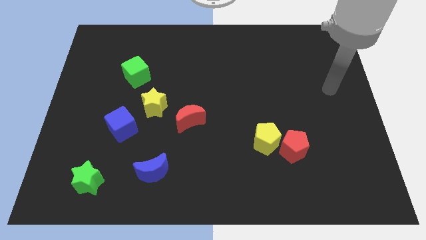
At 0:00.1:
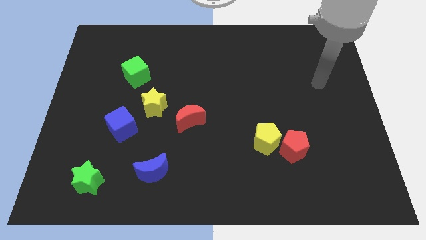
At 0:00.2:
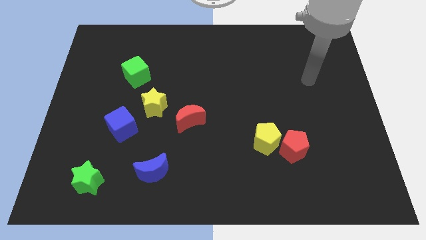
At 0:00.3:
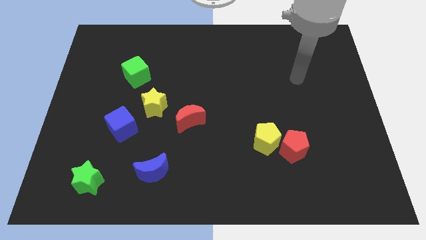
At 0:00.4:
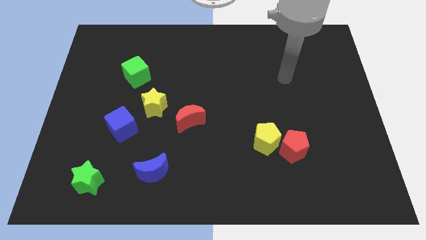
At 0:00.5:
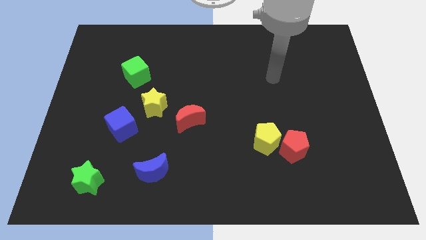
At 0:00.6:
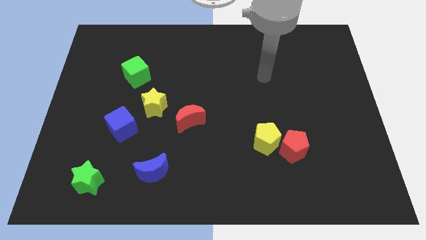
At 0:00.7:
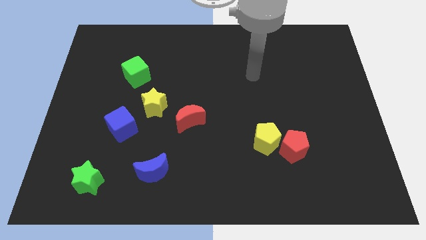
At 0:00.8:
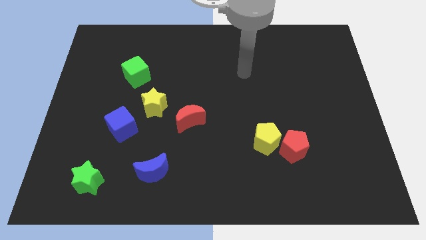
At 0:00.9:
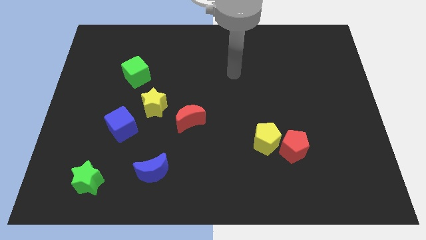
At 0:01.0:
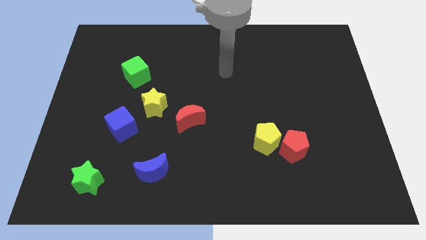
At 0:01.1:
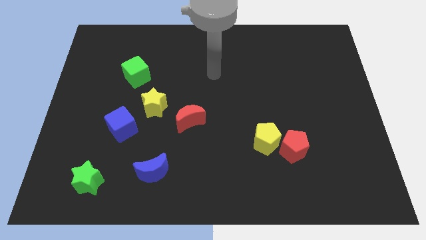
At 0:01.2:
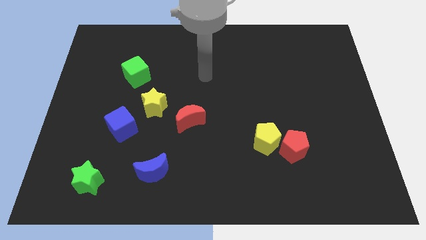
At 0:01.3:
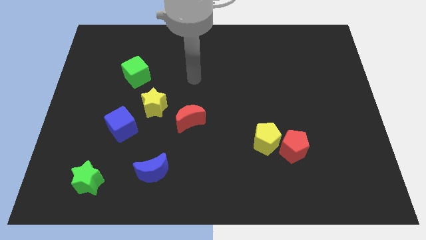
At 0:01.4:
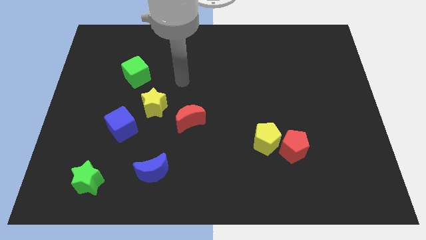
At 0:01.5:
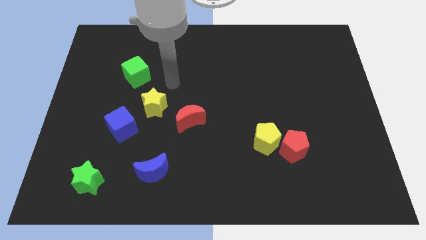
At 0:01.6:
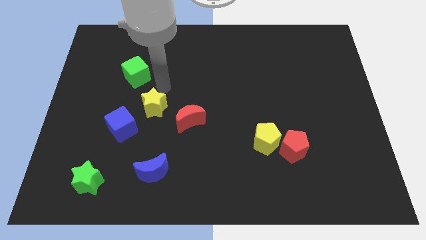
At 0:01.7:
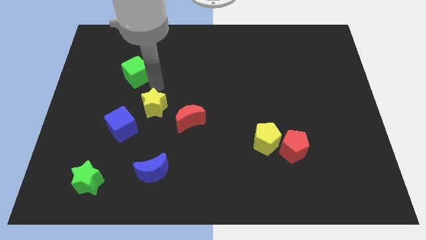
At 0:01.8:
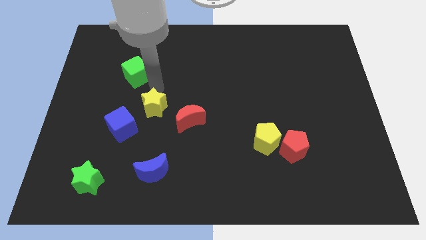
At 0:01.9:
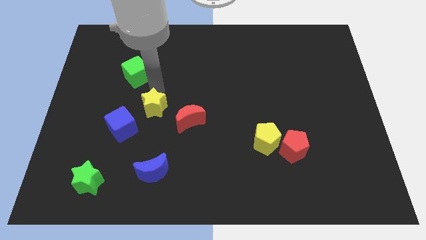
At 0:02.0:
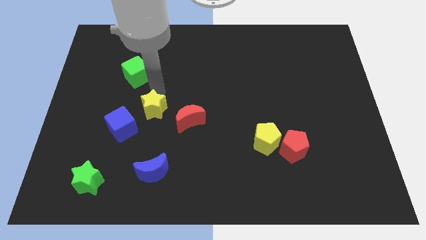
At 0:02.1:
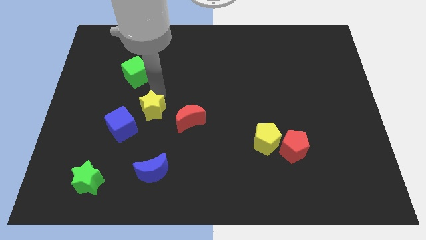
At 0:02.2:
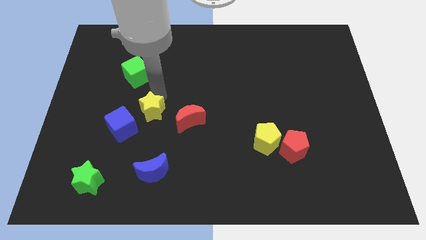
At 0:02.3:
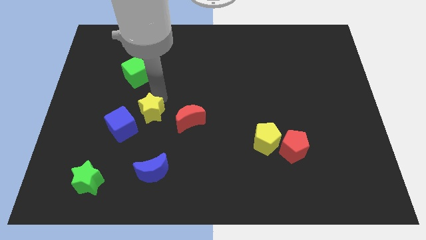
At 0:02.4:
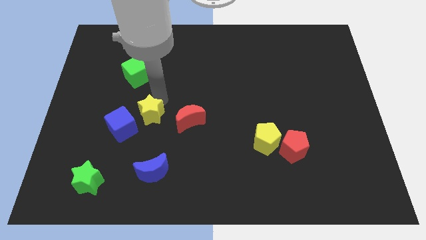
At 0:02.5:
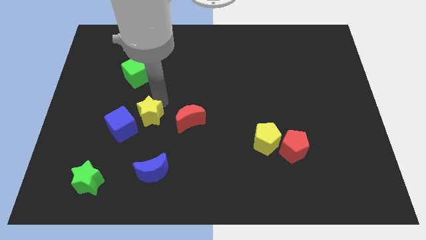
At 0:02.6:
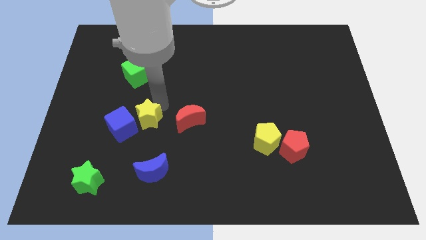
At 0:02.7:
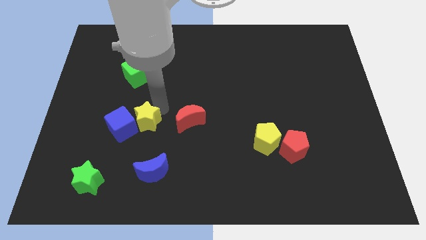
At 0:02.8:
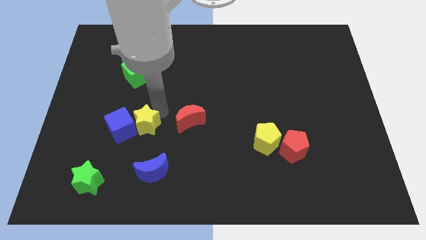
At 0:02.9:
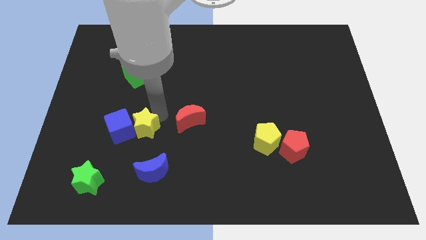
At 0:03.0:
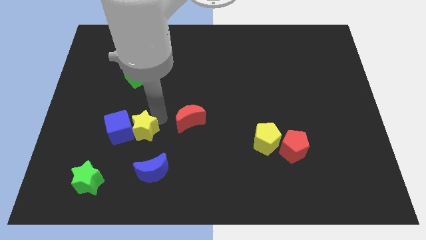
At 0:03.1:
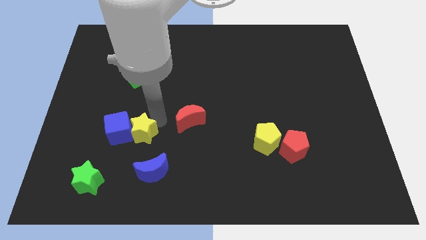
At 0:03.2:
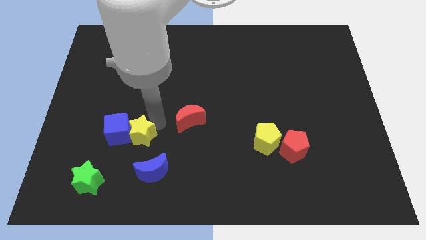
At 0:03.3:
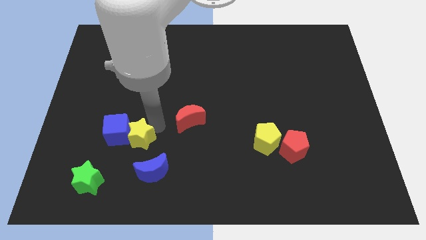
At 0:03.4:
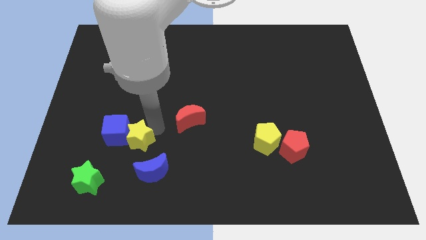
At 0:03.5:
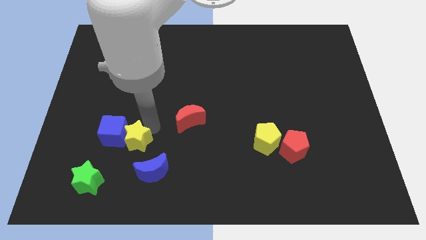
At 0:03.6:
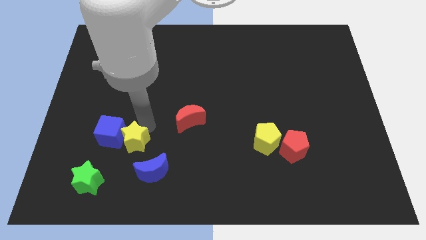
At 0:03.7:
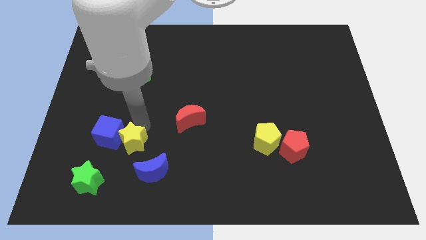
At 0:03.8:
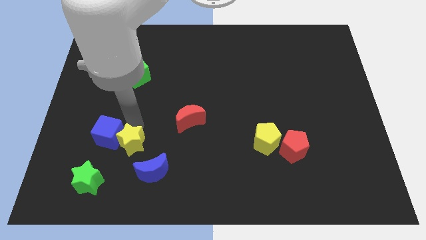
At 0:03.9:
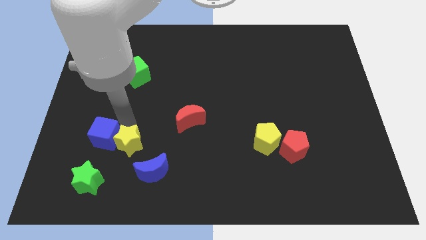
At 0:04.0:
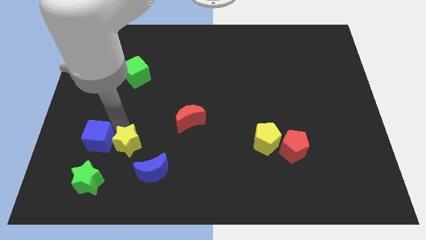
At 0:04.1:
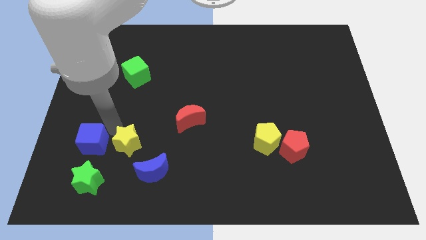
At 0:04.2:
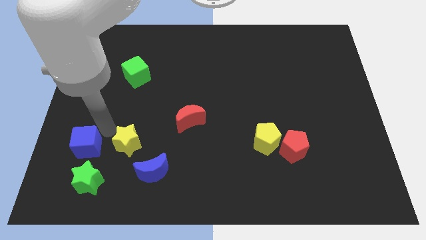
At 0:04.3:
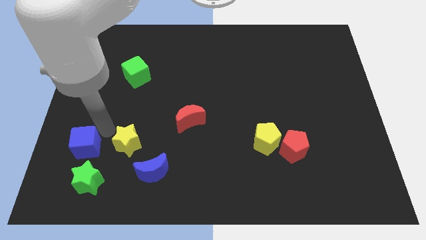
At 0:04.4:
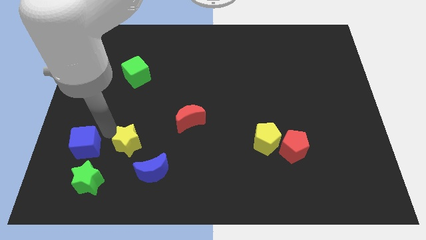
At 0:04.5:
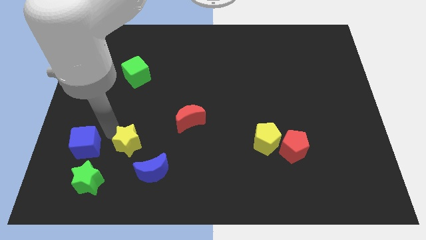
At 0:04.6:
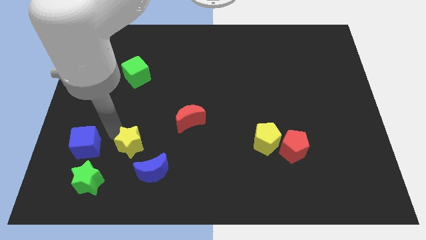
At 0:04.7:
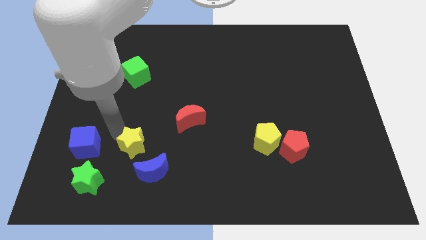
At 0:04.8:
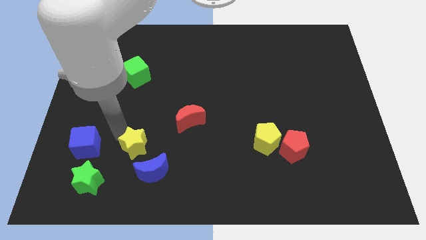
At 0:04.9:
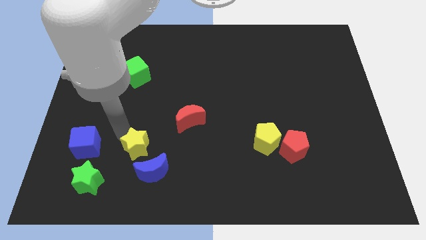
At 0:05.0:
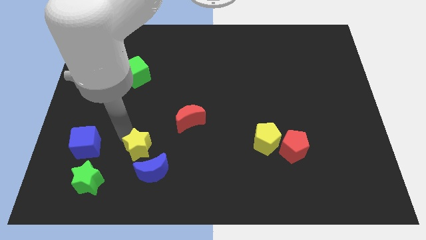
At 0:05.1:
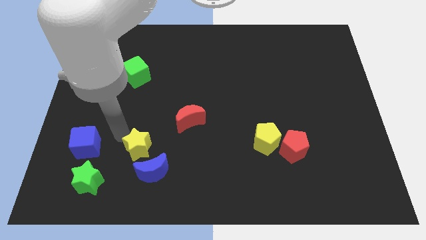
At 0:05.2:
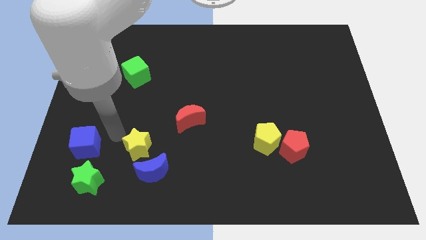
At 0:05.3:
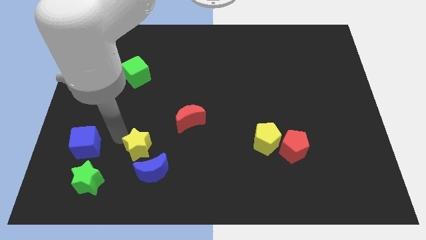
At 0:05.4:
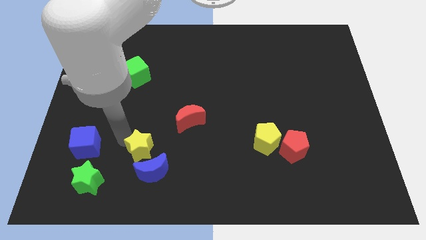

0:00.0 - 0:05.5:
slide the yellow star towards the blue moon

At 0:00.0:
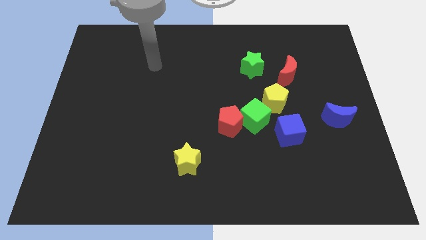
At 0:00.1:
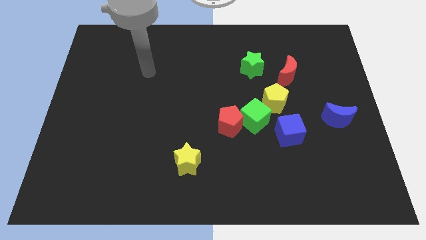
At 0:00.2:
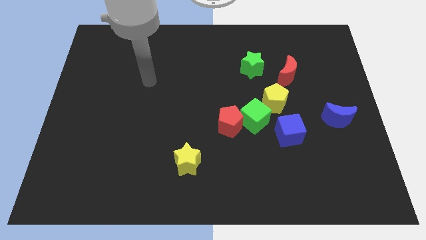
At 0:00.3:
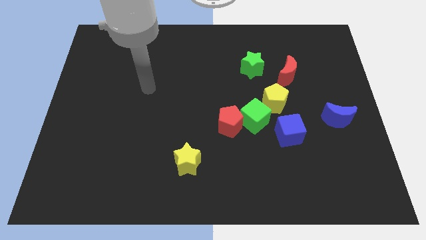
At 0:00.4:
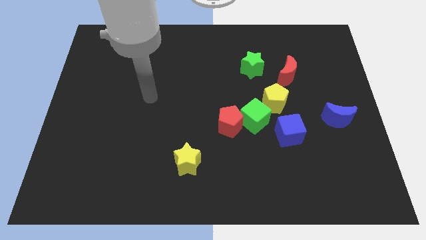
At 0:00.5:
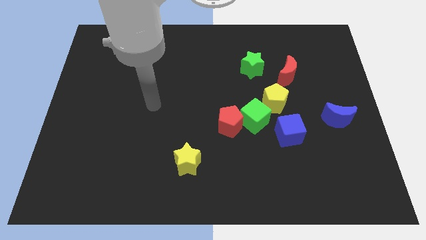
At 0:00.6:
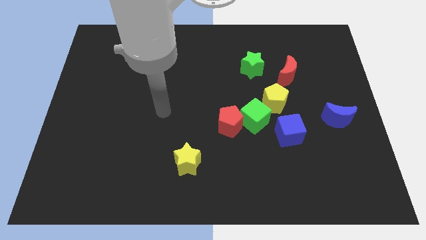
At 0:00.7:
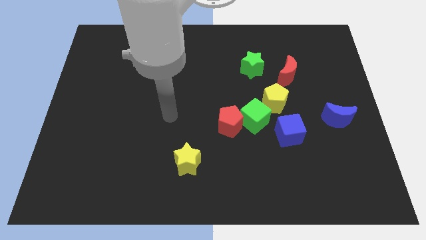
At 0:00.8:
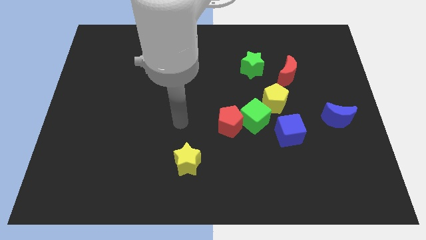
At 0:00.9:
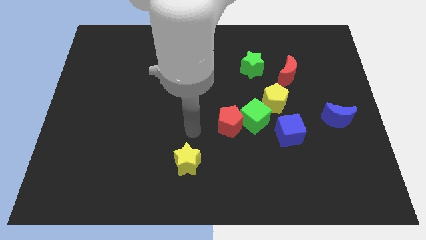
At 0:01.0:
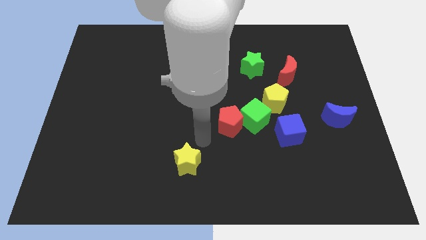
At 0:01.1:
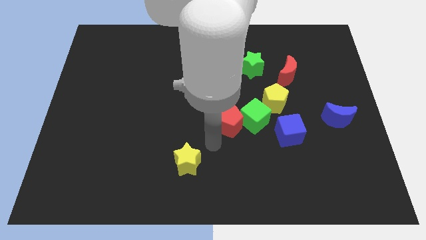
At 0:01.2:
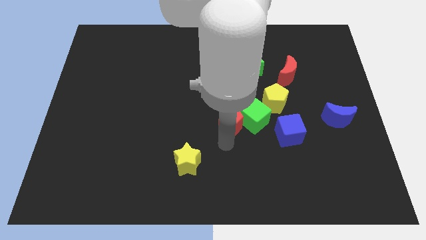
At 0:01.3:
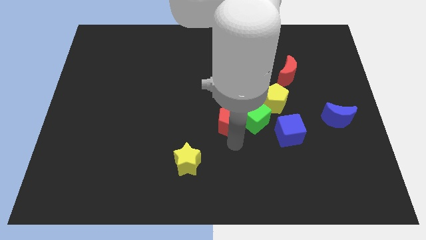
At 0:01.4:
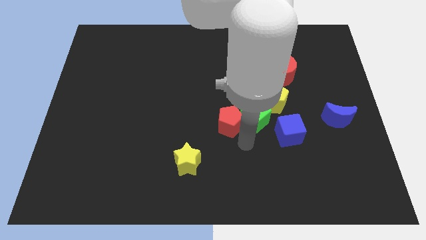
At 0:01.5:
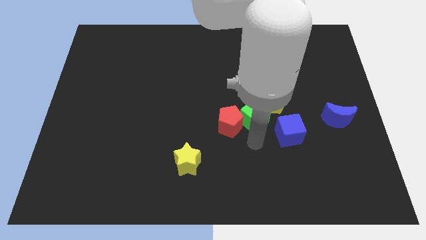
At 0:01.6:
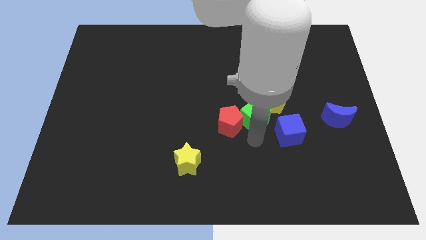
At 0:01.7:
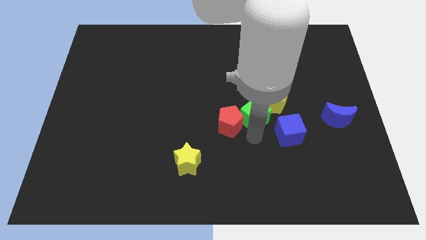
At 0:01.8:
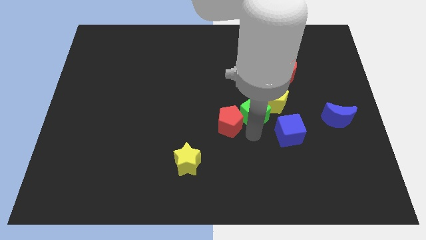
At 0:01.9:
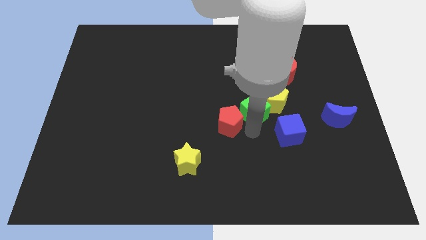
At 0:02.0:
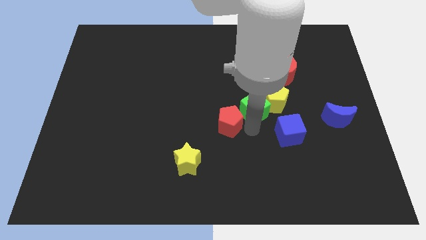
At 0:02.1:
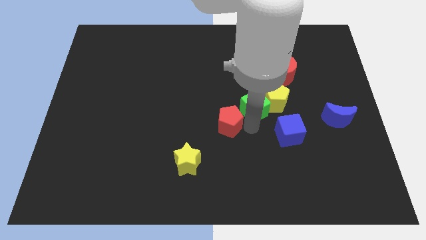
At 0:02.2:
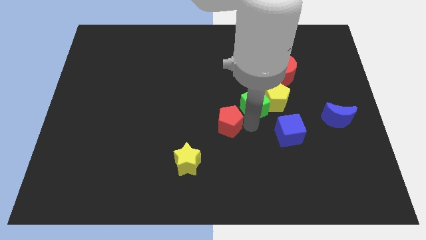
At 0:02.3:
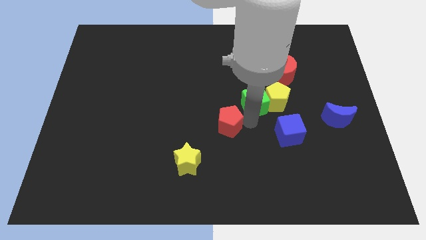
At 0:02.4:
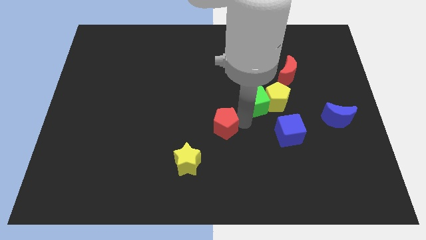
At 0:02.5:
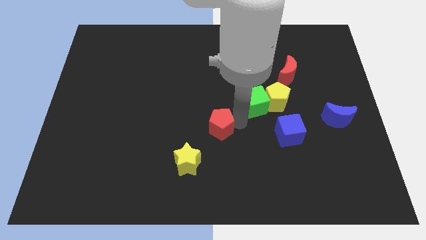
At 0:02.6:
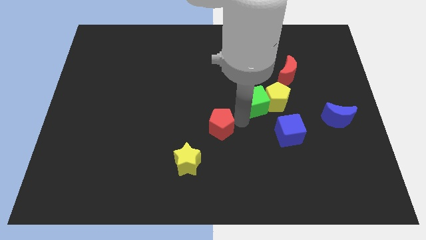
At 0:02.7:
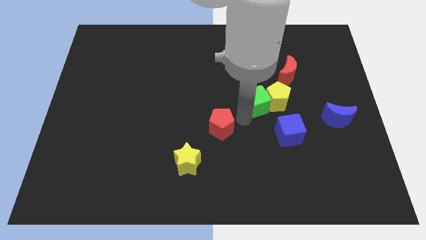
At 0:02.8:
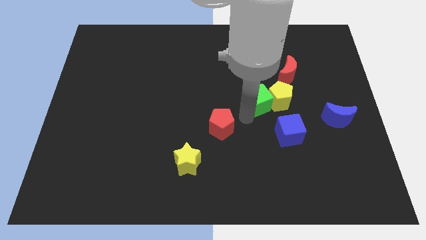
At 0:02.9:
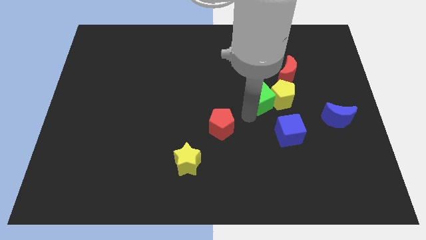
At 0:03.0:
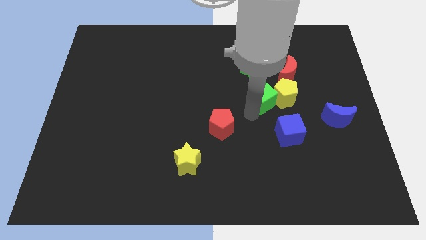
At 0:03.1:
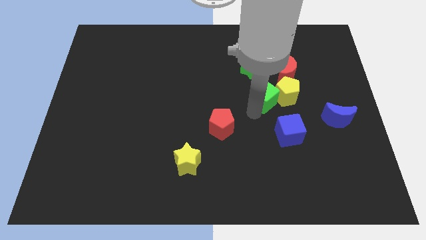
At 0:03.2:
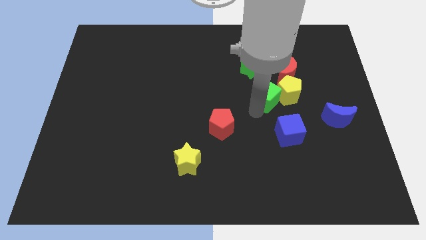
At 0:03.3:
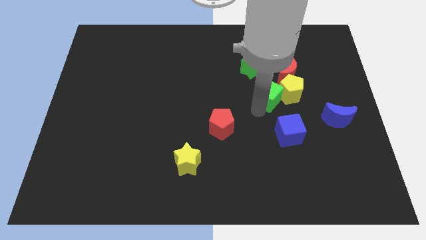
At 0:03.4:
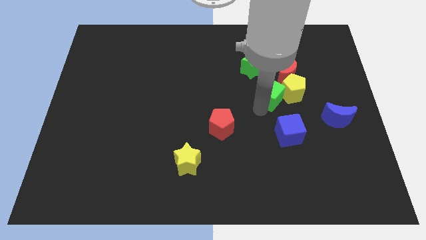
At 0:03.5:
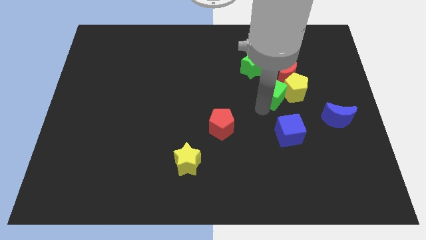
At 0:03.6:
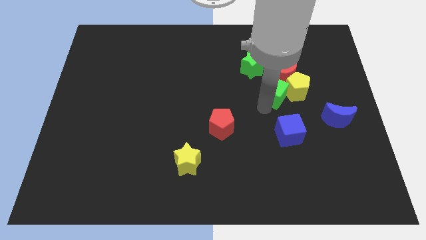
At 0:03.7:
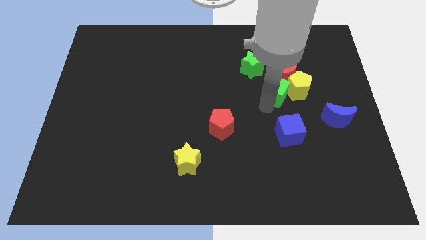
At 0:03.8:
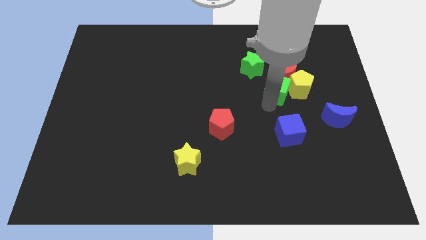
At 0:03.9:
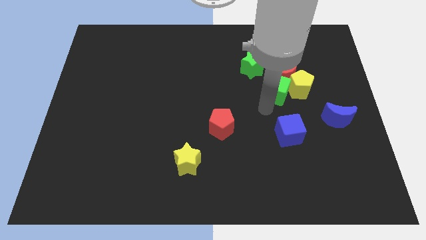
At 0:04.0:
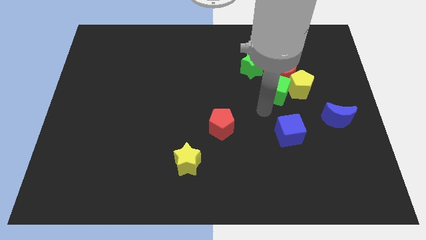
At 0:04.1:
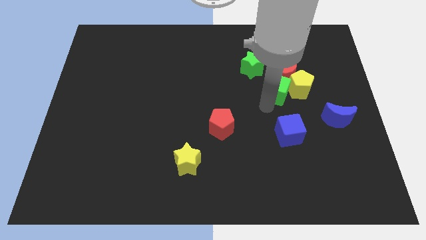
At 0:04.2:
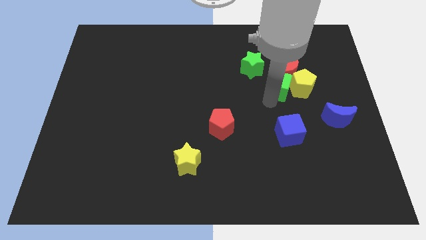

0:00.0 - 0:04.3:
put the green cube close to the red moon
